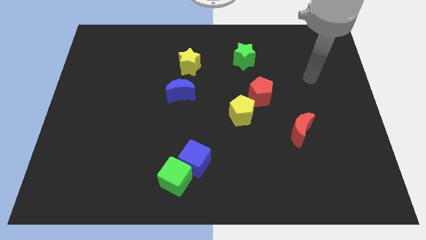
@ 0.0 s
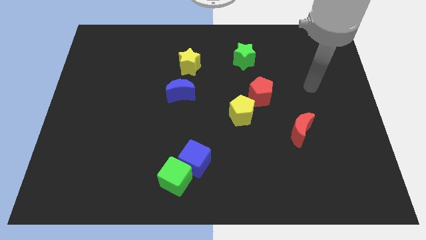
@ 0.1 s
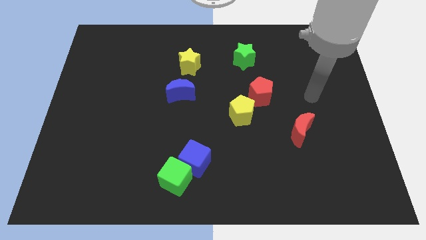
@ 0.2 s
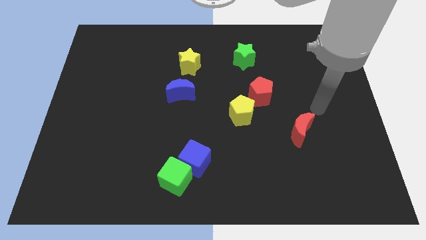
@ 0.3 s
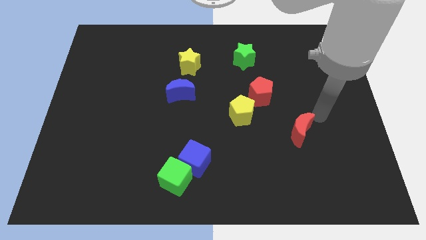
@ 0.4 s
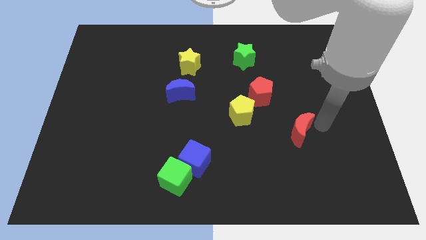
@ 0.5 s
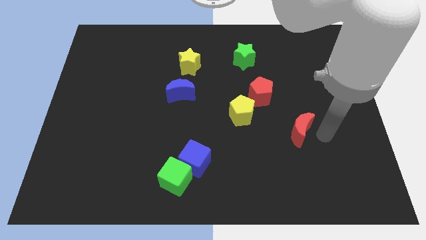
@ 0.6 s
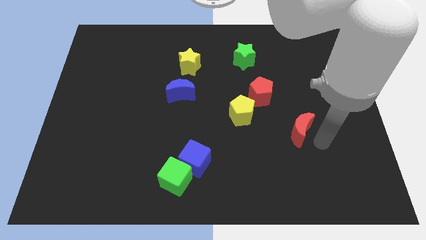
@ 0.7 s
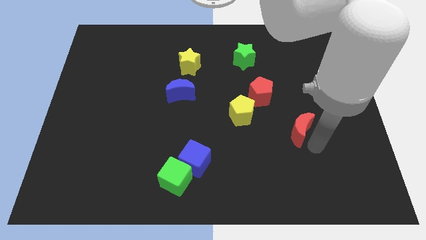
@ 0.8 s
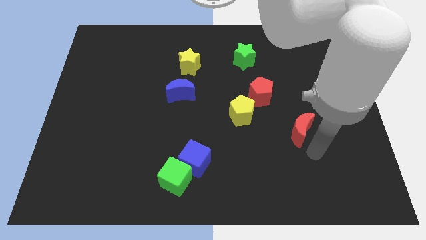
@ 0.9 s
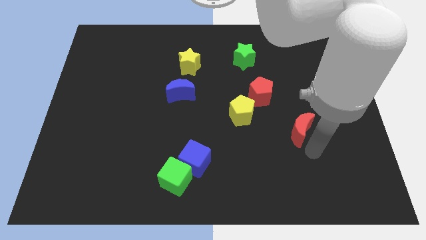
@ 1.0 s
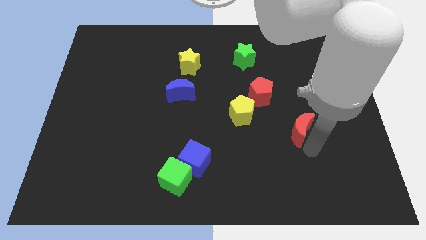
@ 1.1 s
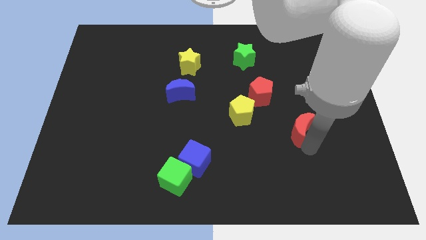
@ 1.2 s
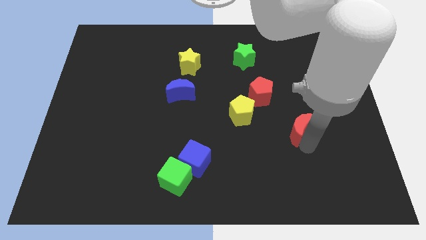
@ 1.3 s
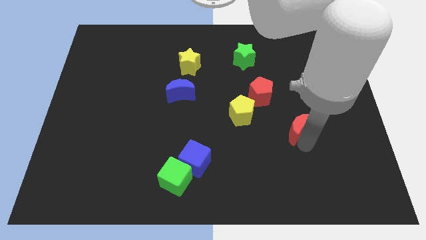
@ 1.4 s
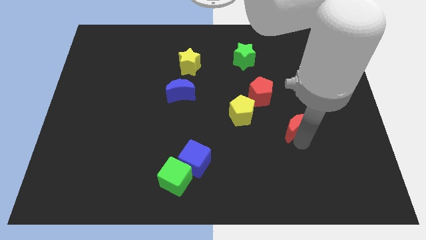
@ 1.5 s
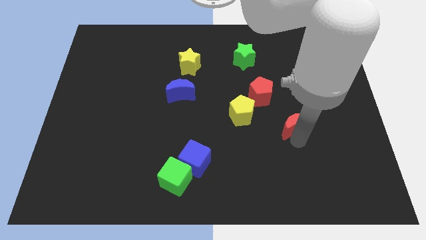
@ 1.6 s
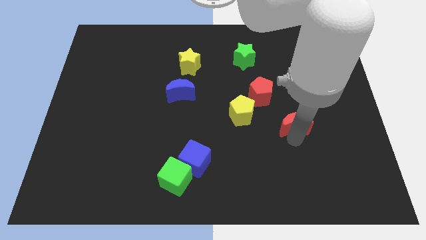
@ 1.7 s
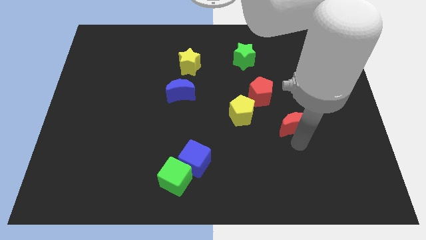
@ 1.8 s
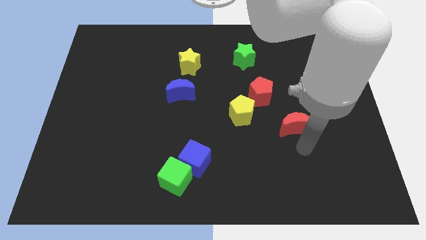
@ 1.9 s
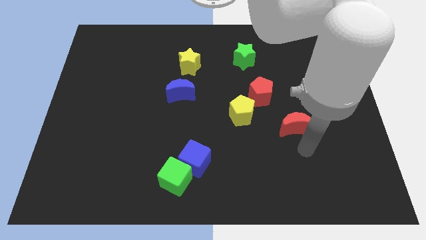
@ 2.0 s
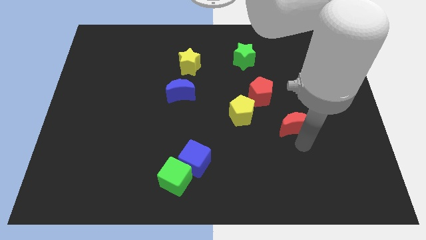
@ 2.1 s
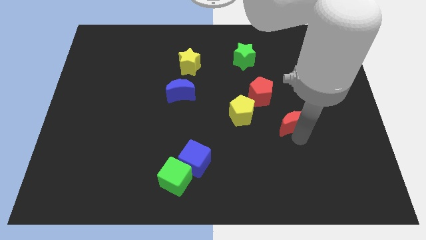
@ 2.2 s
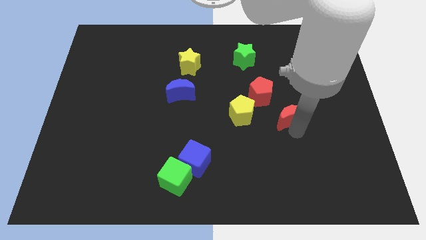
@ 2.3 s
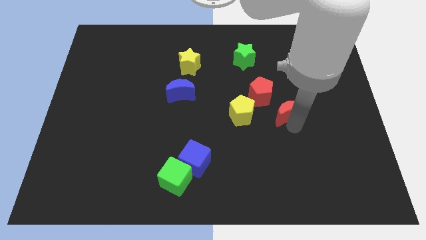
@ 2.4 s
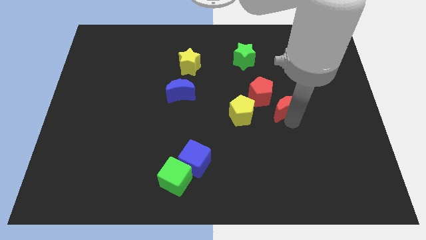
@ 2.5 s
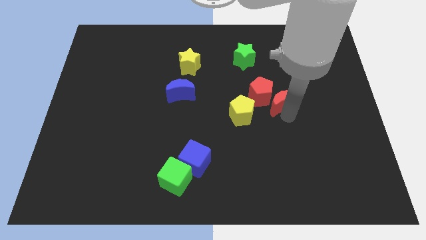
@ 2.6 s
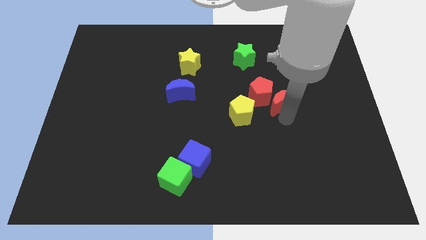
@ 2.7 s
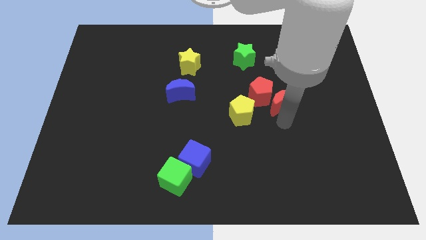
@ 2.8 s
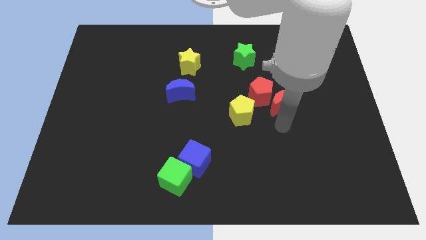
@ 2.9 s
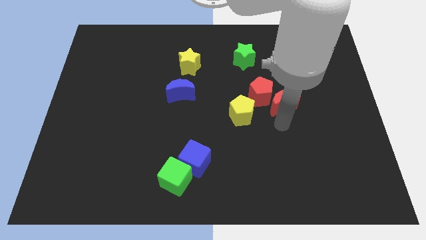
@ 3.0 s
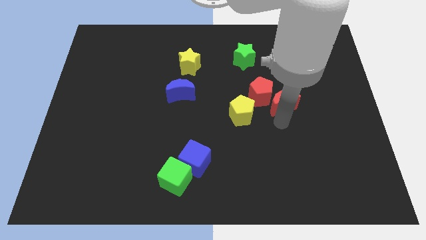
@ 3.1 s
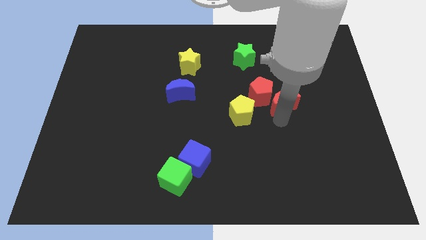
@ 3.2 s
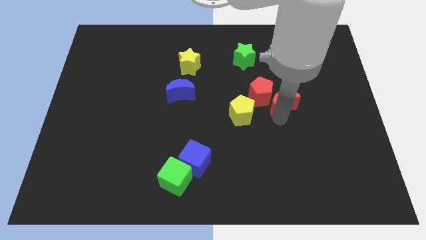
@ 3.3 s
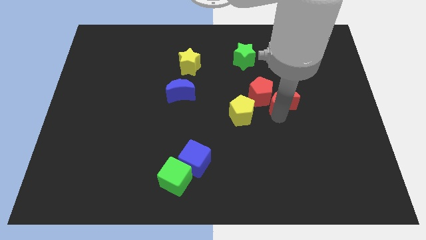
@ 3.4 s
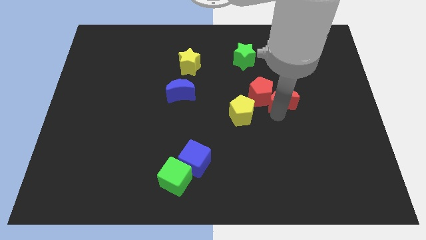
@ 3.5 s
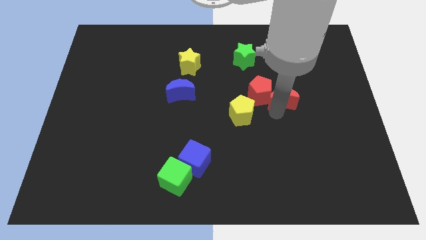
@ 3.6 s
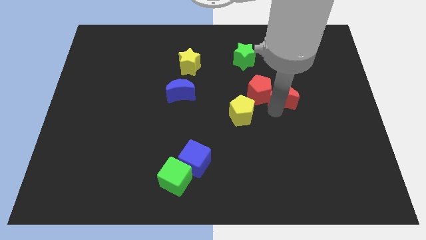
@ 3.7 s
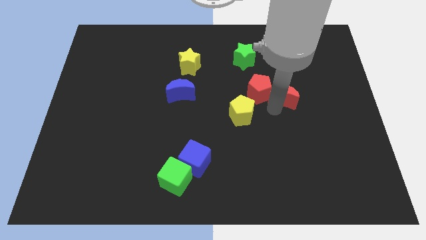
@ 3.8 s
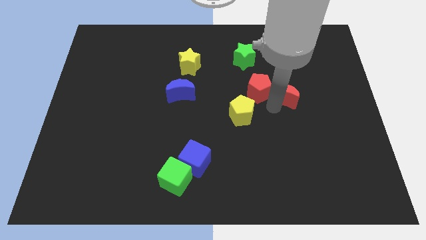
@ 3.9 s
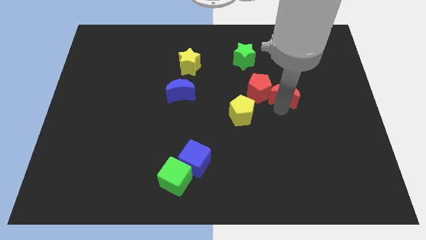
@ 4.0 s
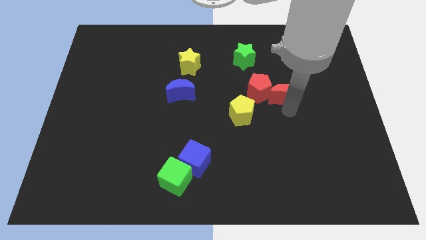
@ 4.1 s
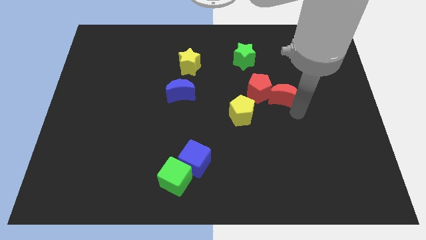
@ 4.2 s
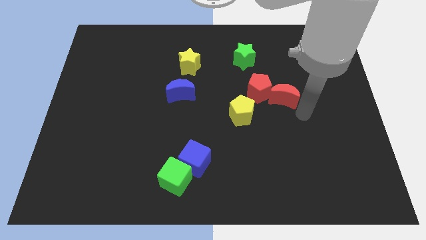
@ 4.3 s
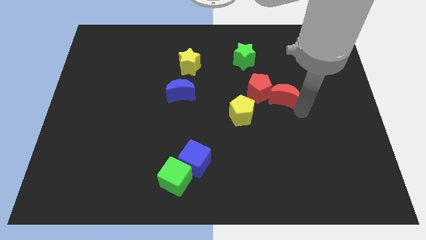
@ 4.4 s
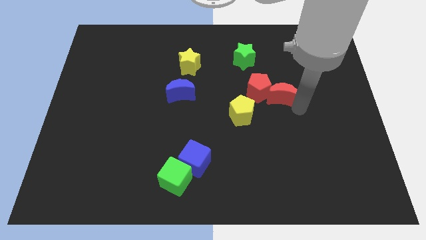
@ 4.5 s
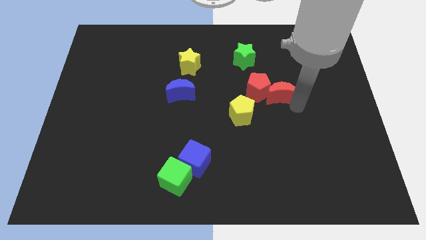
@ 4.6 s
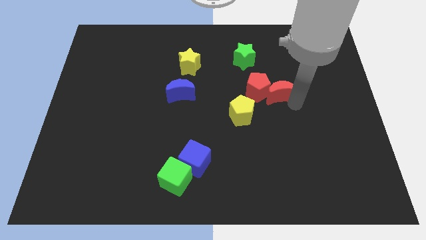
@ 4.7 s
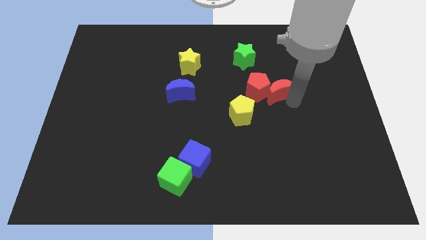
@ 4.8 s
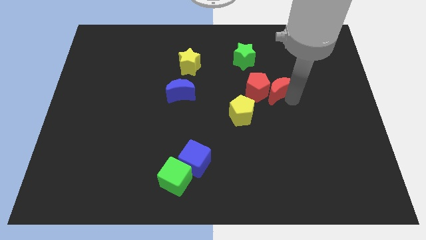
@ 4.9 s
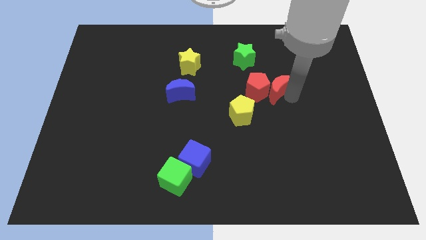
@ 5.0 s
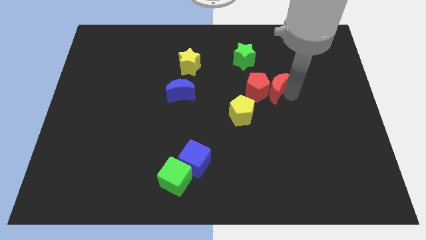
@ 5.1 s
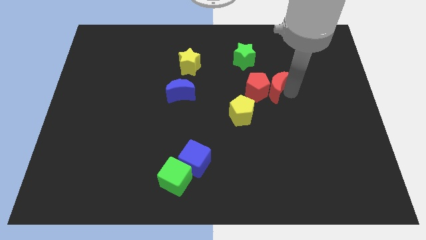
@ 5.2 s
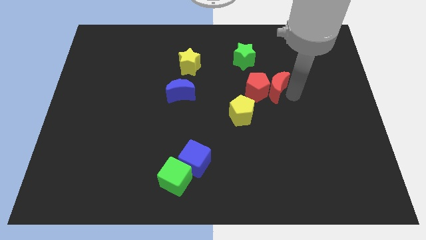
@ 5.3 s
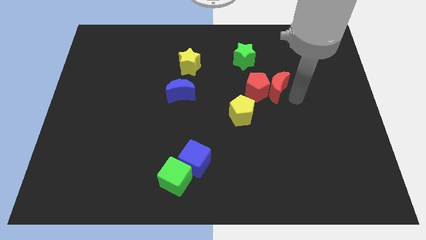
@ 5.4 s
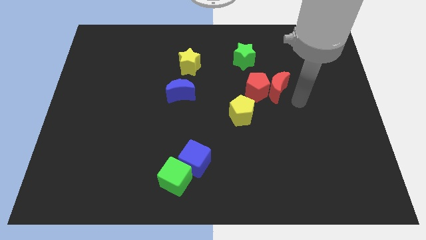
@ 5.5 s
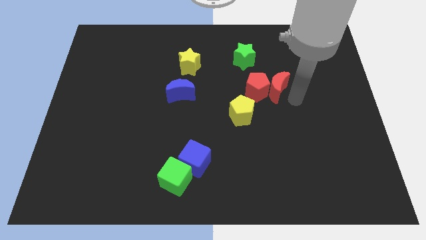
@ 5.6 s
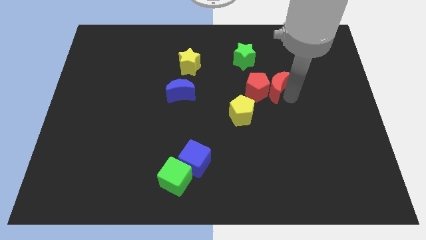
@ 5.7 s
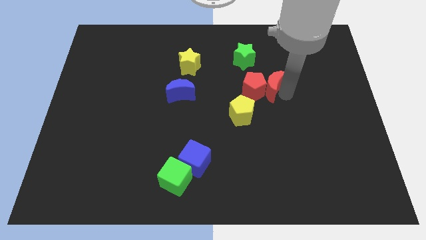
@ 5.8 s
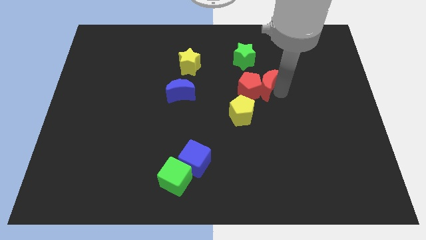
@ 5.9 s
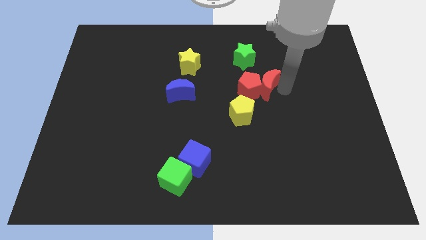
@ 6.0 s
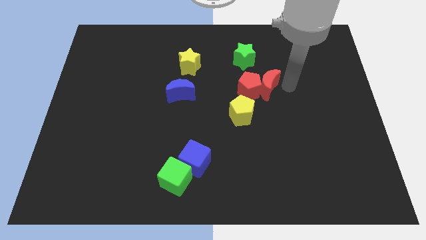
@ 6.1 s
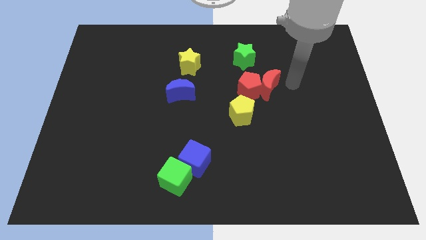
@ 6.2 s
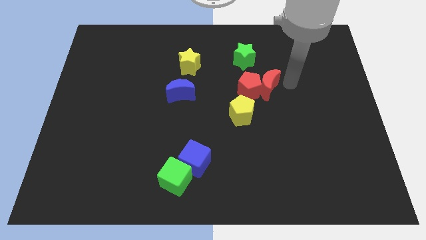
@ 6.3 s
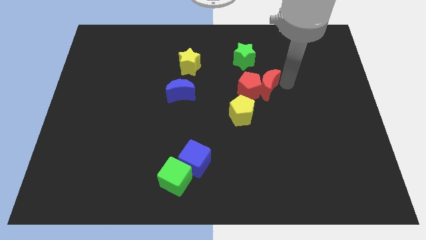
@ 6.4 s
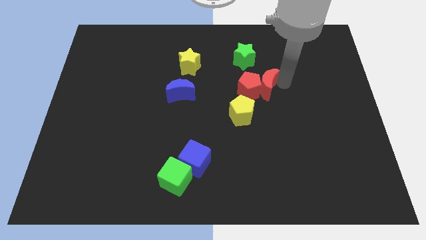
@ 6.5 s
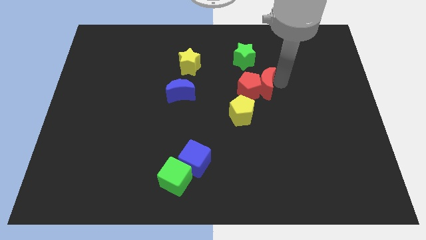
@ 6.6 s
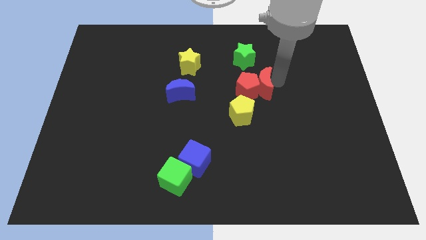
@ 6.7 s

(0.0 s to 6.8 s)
put the red moon to the bottom side of the green star
